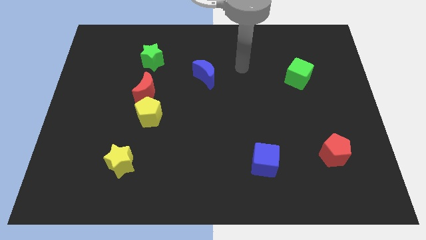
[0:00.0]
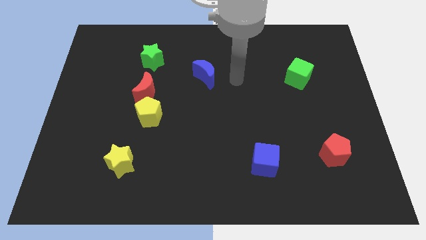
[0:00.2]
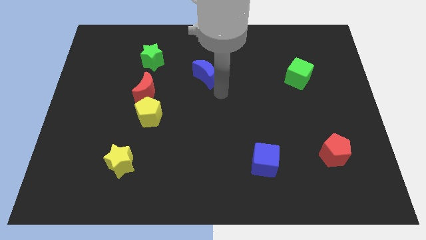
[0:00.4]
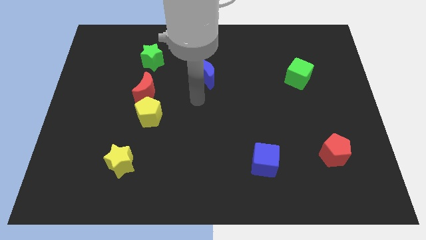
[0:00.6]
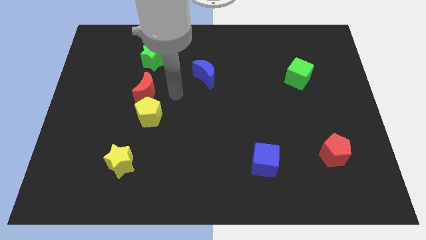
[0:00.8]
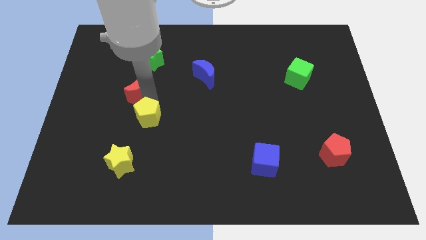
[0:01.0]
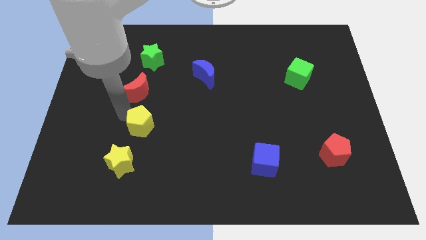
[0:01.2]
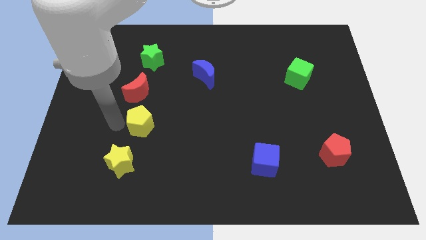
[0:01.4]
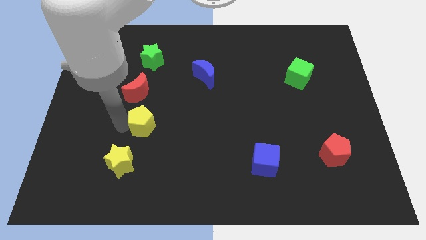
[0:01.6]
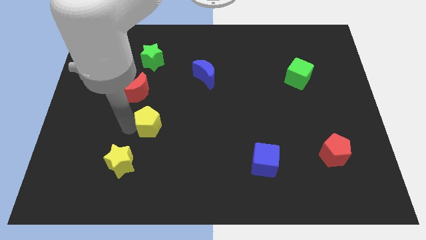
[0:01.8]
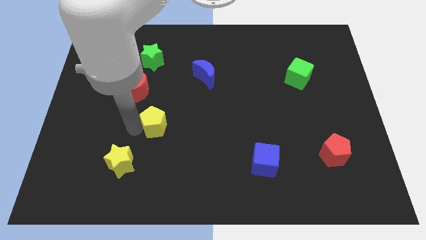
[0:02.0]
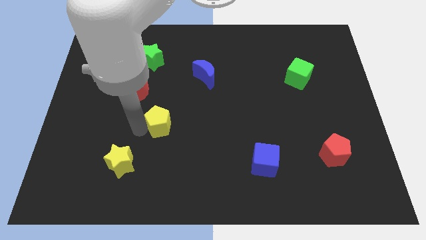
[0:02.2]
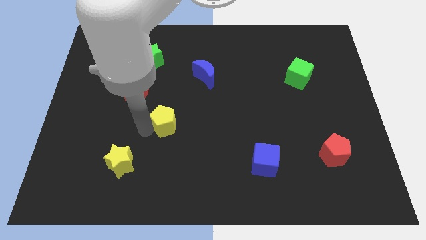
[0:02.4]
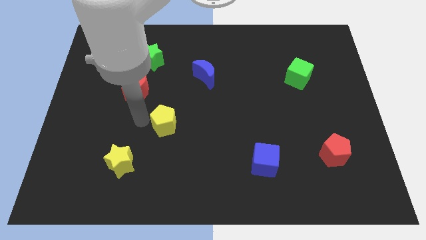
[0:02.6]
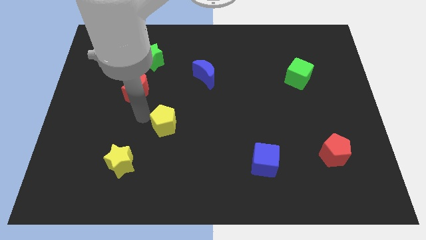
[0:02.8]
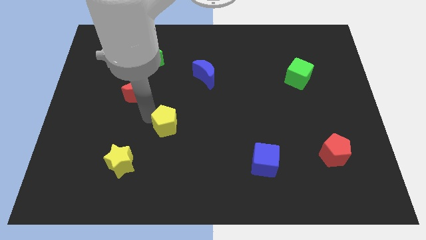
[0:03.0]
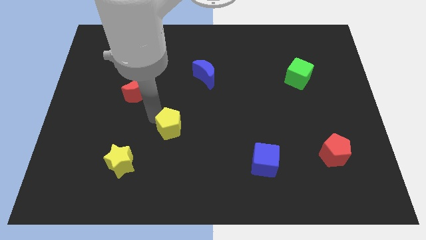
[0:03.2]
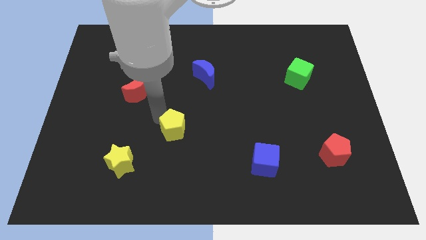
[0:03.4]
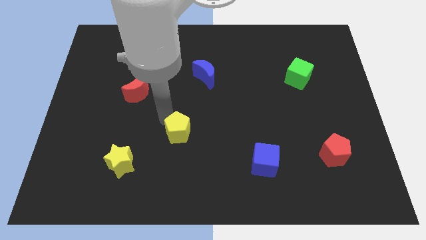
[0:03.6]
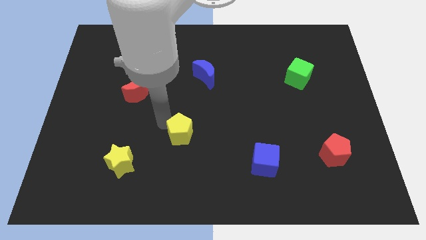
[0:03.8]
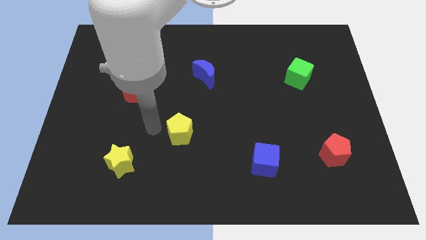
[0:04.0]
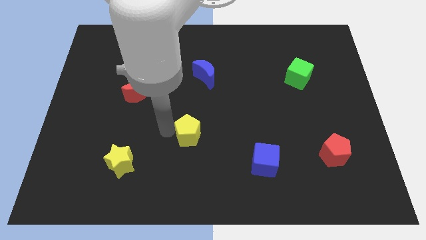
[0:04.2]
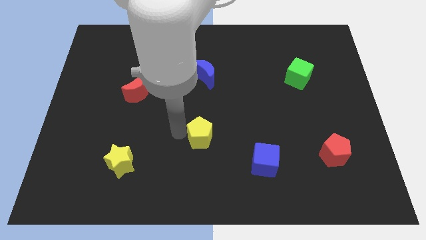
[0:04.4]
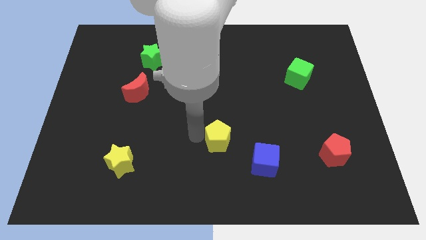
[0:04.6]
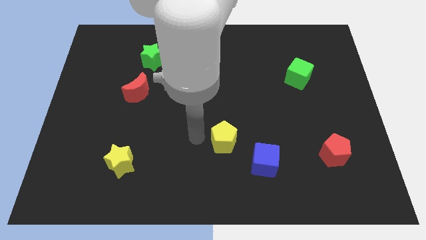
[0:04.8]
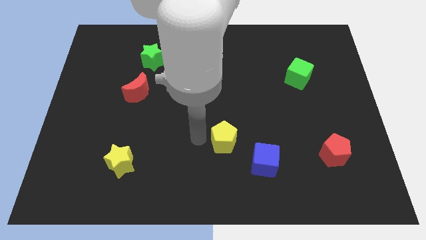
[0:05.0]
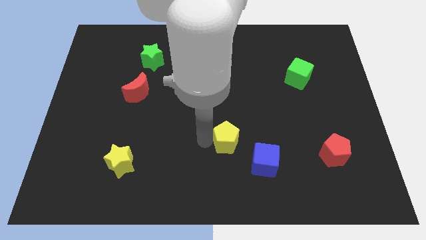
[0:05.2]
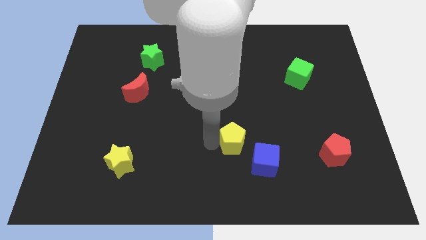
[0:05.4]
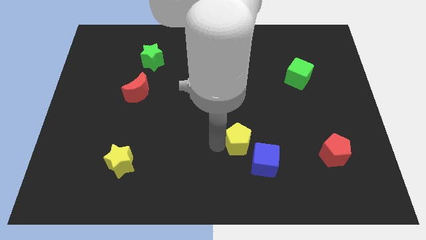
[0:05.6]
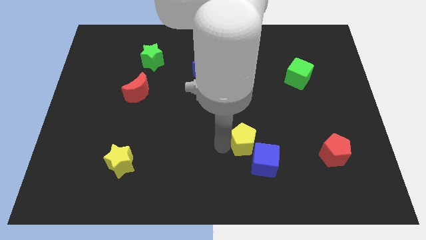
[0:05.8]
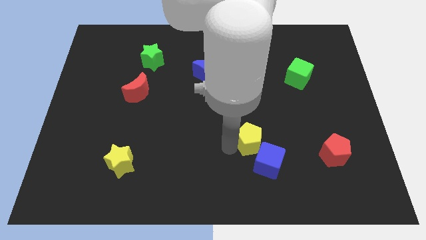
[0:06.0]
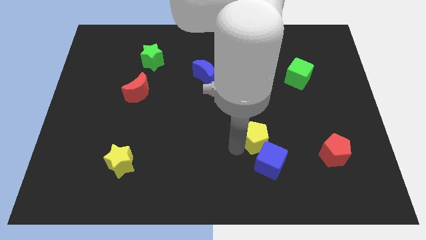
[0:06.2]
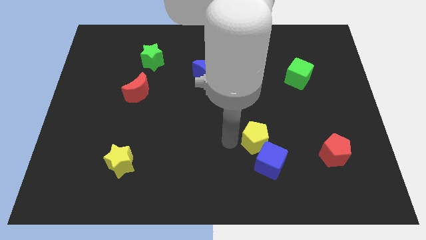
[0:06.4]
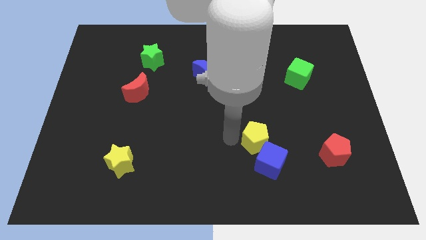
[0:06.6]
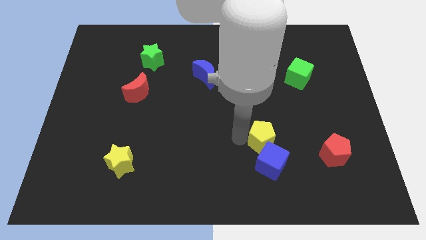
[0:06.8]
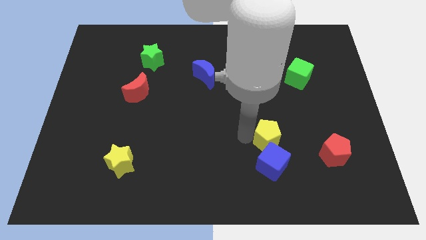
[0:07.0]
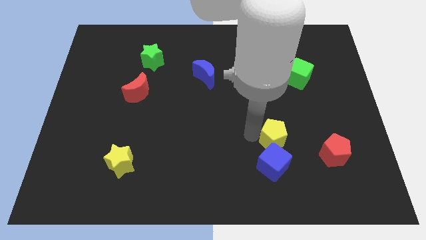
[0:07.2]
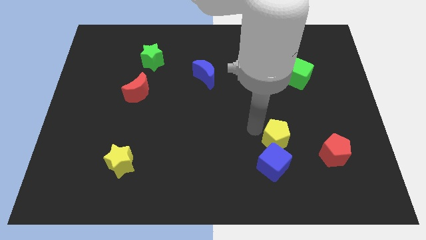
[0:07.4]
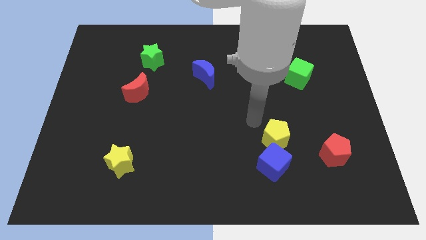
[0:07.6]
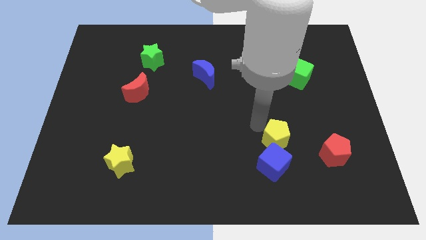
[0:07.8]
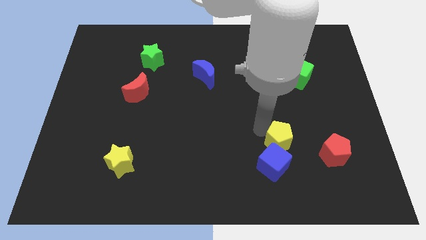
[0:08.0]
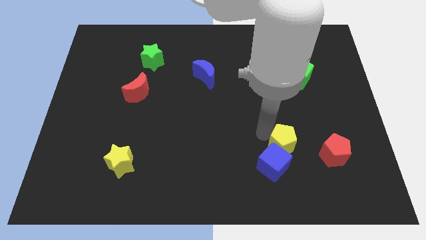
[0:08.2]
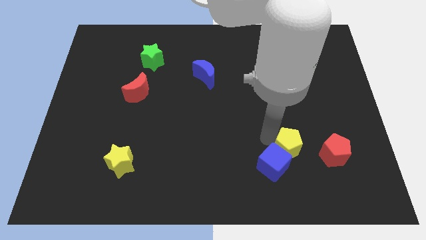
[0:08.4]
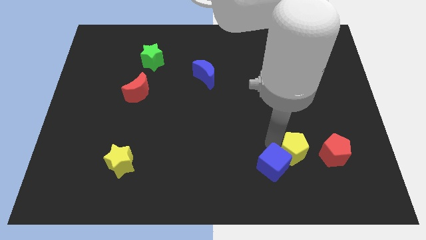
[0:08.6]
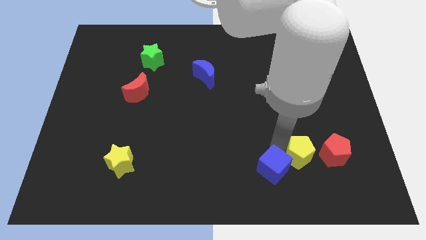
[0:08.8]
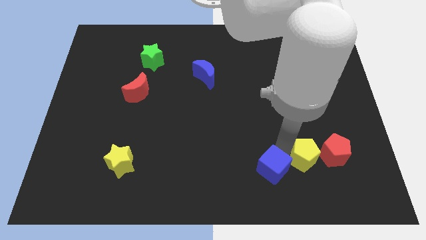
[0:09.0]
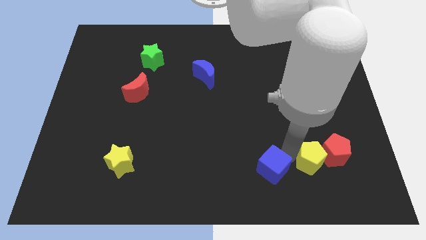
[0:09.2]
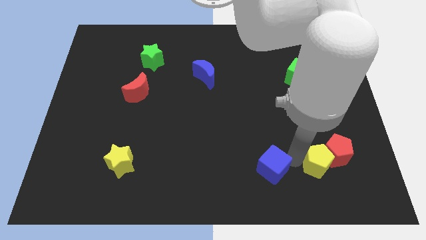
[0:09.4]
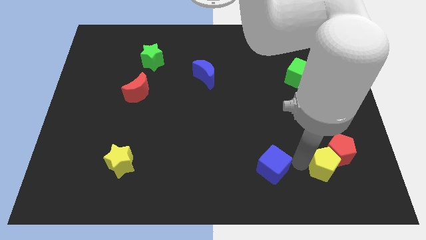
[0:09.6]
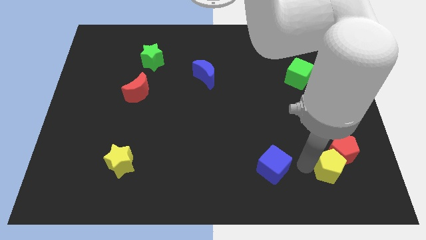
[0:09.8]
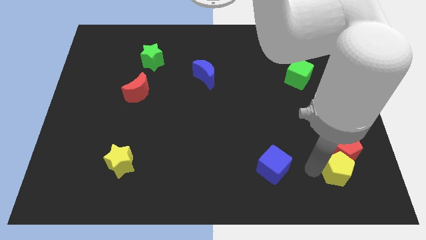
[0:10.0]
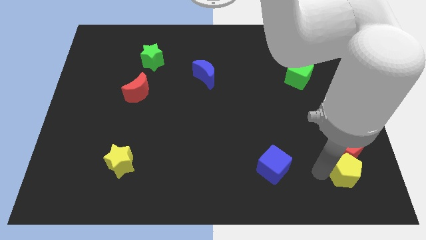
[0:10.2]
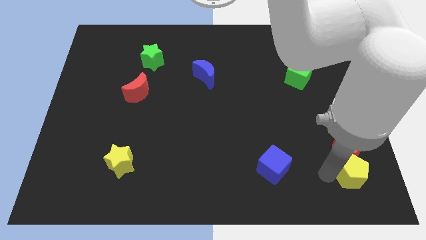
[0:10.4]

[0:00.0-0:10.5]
move the yellow pentagon to the lower right corner

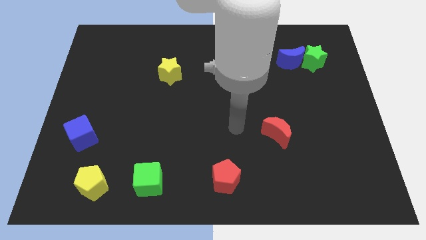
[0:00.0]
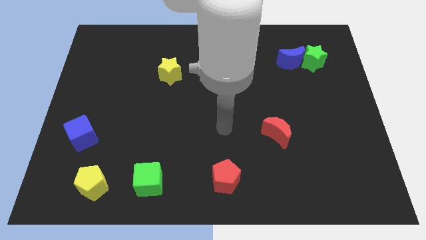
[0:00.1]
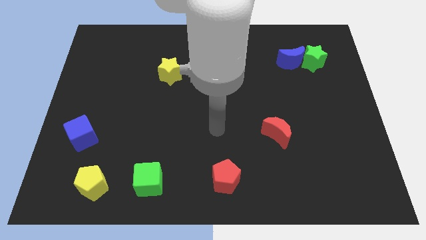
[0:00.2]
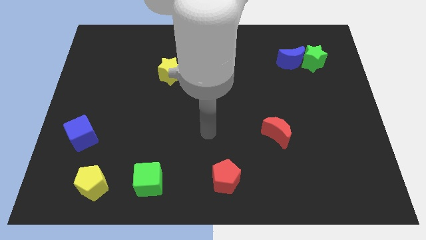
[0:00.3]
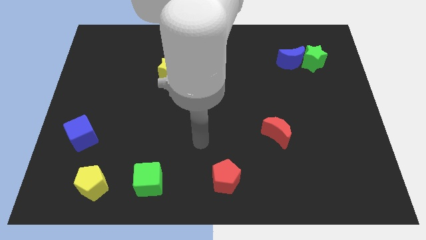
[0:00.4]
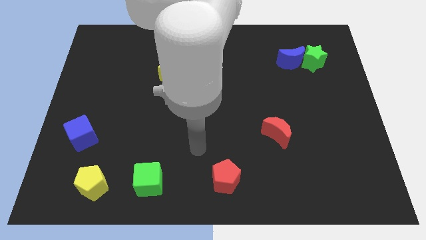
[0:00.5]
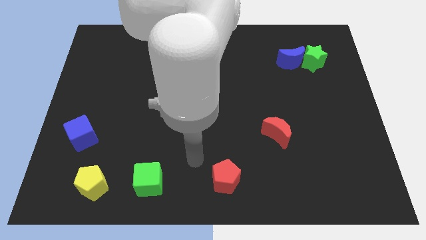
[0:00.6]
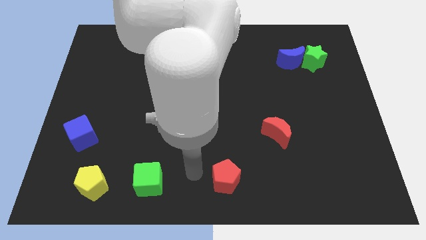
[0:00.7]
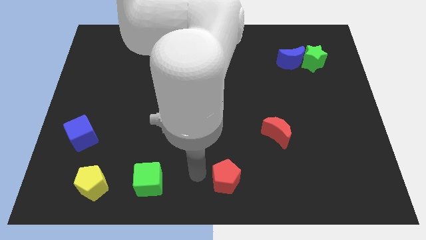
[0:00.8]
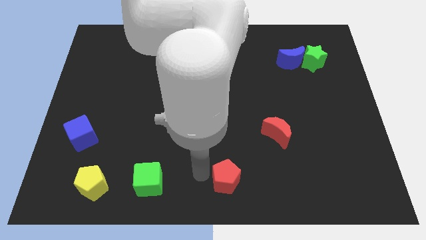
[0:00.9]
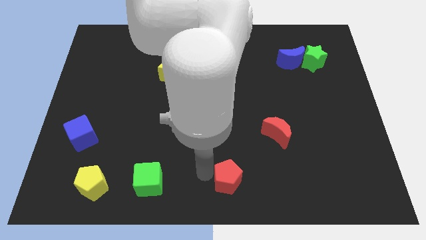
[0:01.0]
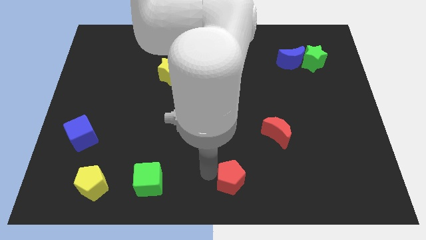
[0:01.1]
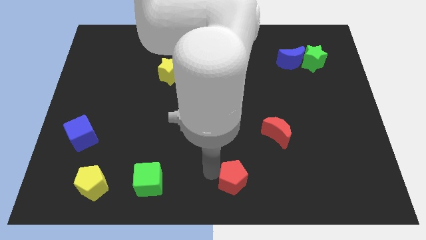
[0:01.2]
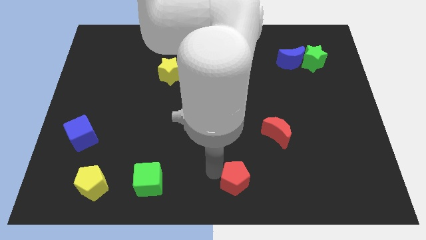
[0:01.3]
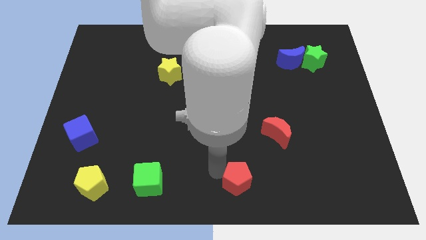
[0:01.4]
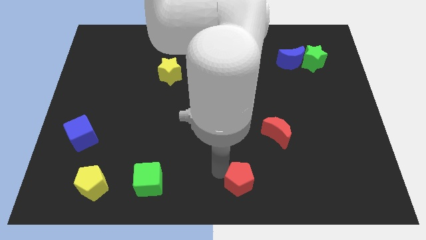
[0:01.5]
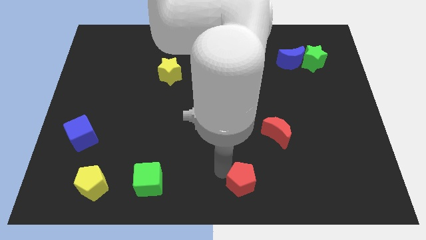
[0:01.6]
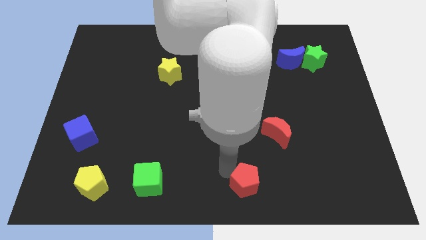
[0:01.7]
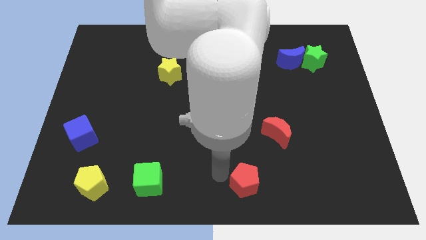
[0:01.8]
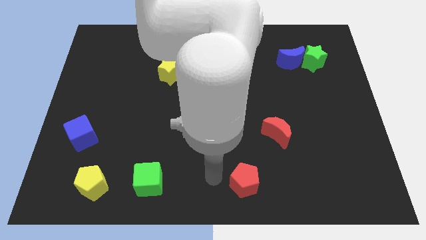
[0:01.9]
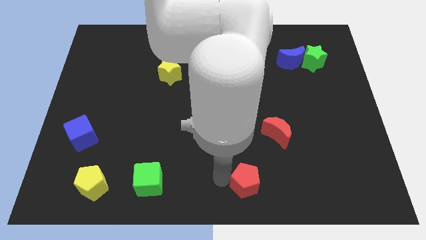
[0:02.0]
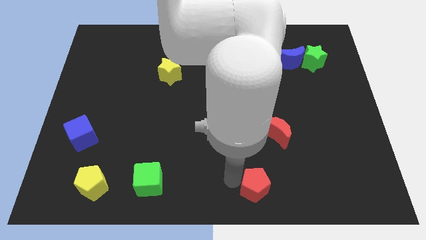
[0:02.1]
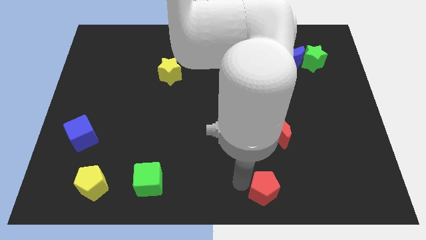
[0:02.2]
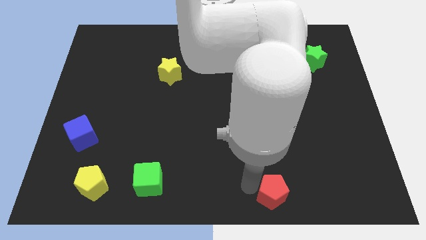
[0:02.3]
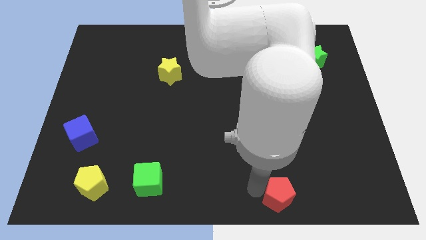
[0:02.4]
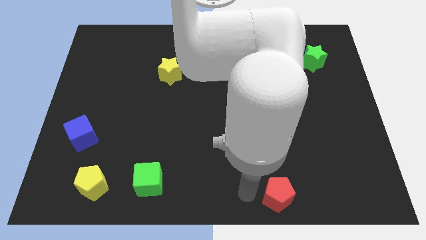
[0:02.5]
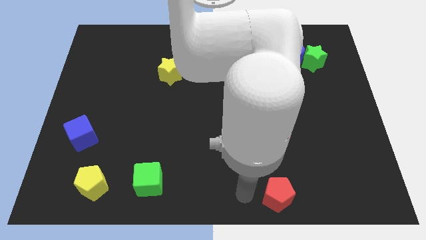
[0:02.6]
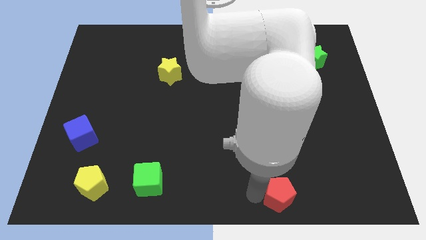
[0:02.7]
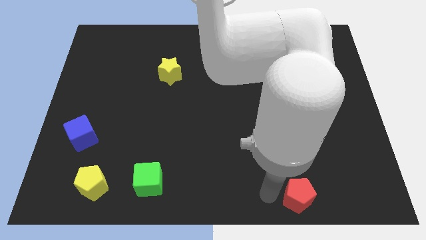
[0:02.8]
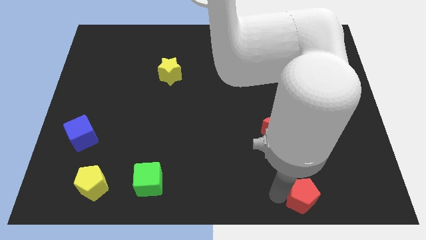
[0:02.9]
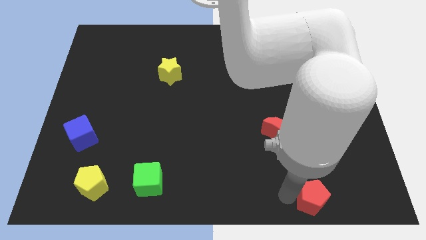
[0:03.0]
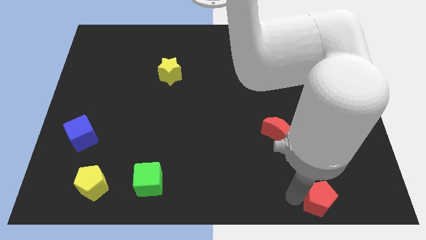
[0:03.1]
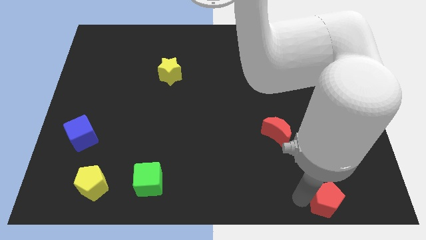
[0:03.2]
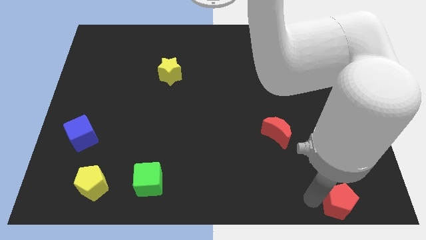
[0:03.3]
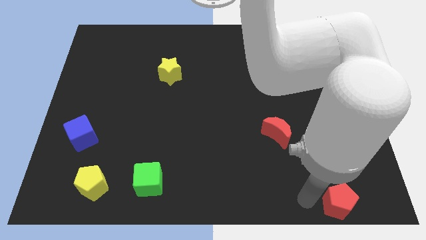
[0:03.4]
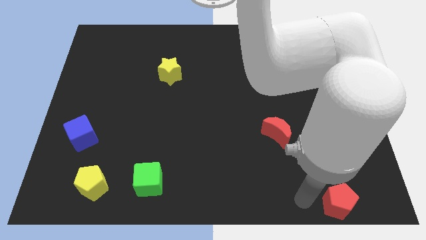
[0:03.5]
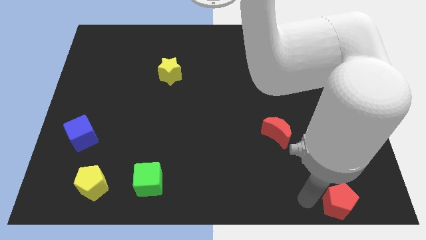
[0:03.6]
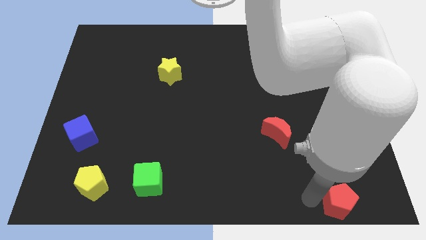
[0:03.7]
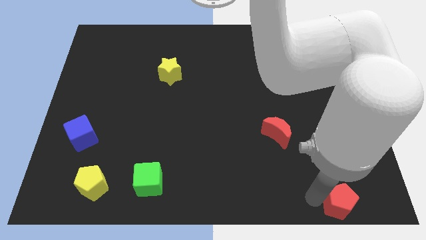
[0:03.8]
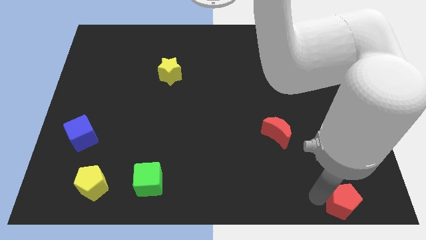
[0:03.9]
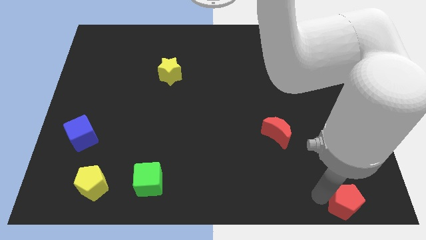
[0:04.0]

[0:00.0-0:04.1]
move the red pentagon to the bottom right of the board
